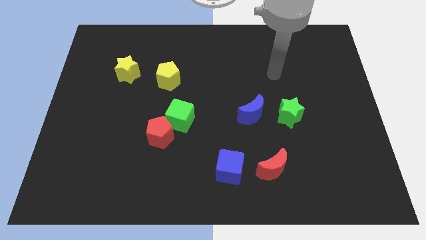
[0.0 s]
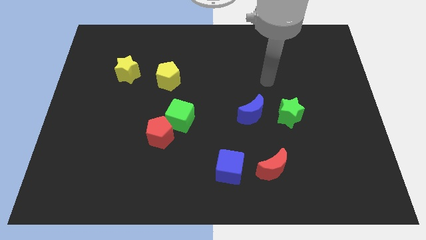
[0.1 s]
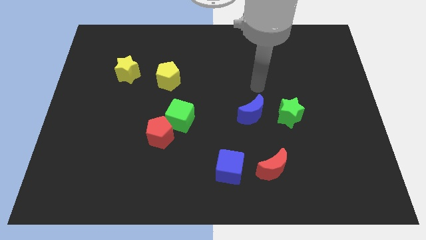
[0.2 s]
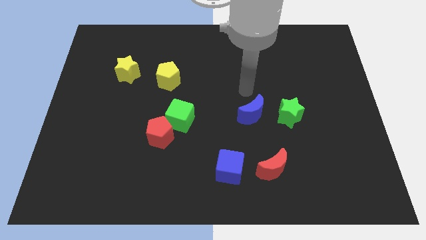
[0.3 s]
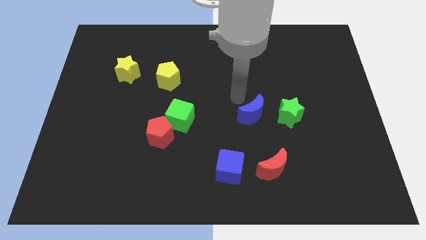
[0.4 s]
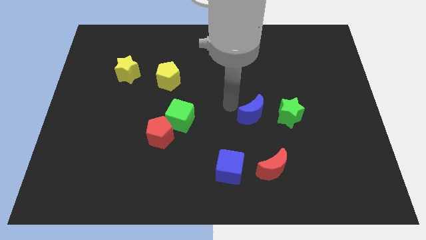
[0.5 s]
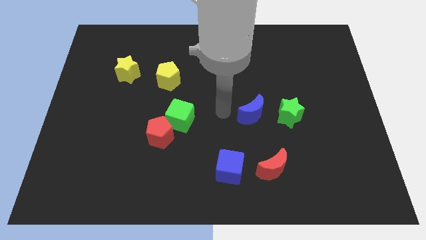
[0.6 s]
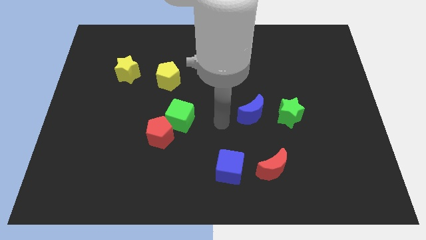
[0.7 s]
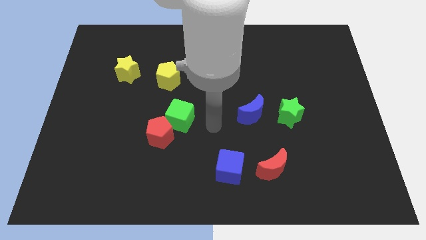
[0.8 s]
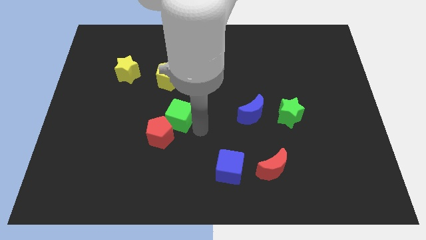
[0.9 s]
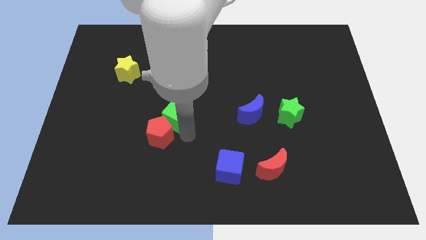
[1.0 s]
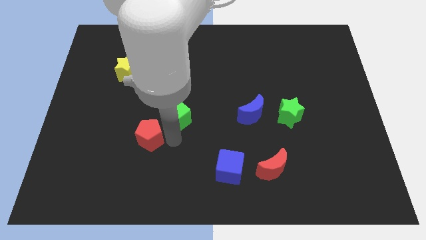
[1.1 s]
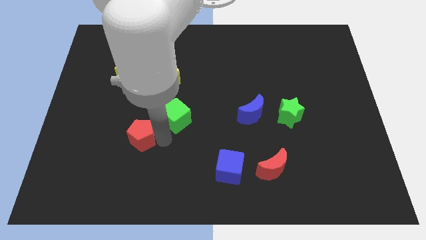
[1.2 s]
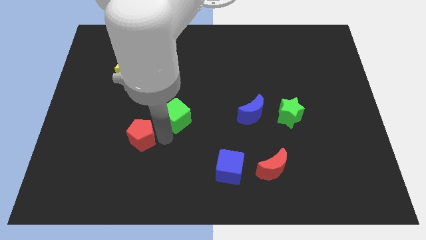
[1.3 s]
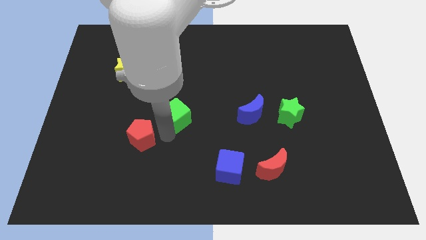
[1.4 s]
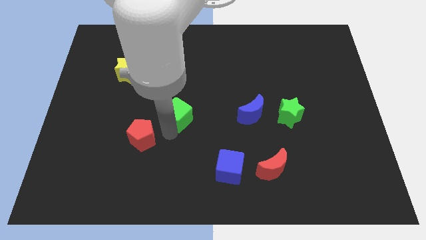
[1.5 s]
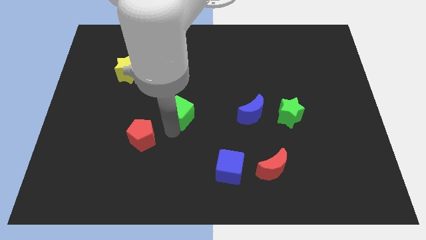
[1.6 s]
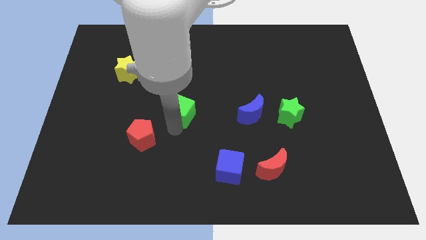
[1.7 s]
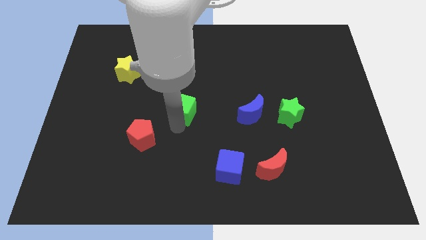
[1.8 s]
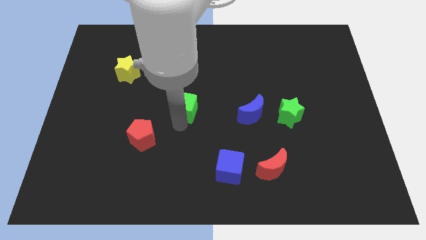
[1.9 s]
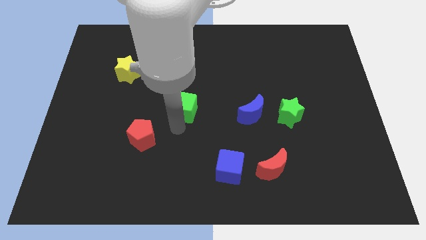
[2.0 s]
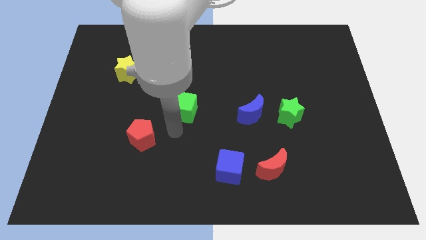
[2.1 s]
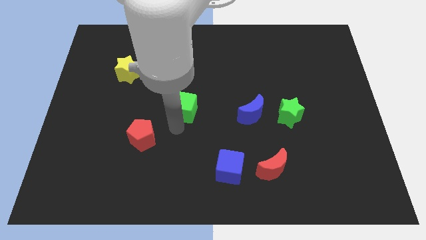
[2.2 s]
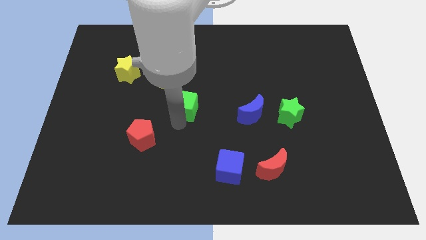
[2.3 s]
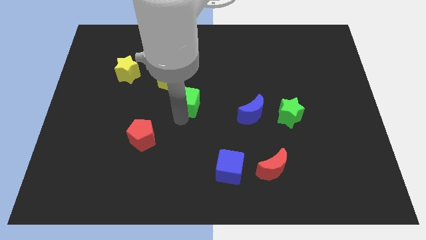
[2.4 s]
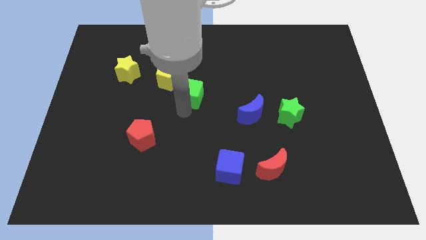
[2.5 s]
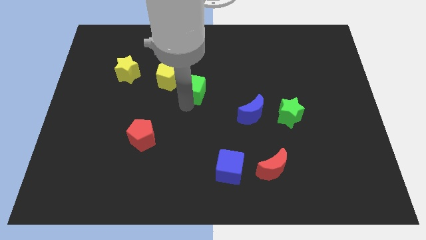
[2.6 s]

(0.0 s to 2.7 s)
slightly push the green cube up

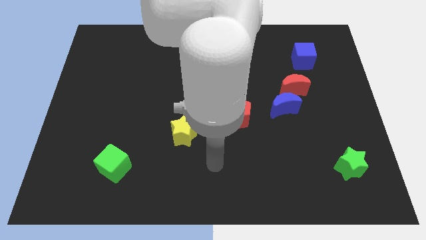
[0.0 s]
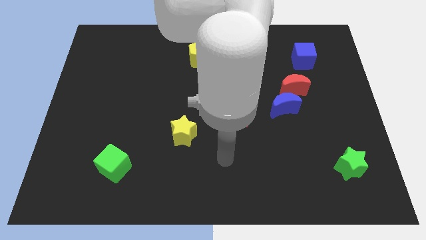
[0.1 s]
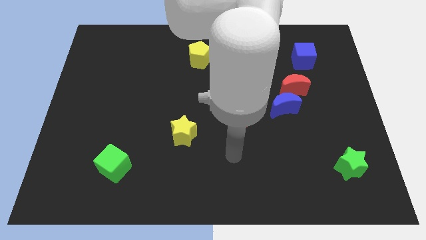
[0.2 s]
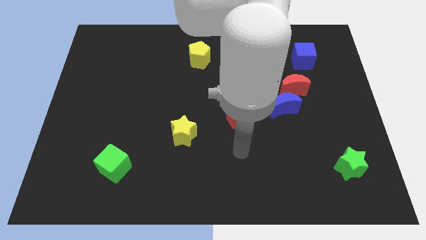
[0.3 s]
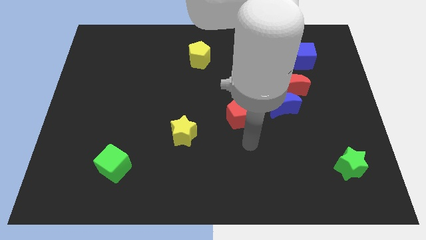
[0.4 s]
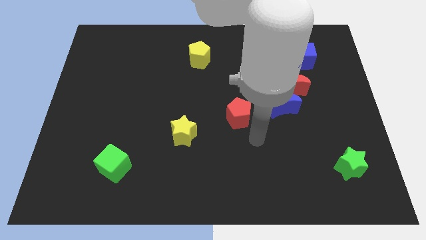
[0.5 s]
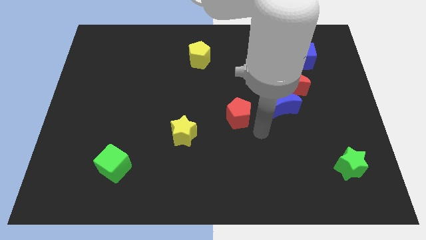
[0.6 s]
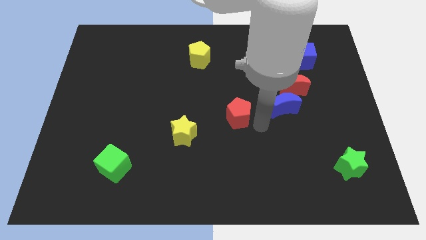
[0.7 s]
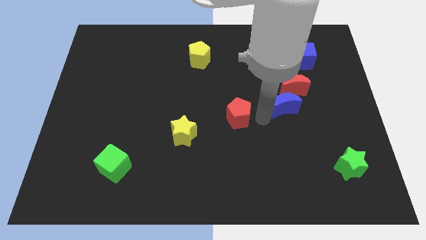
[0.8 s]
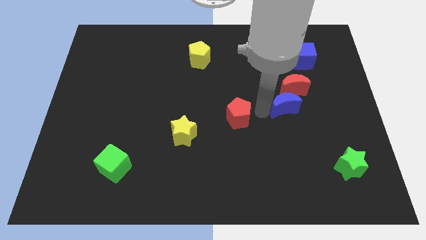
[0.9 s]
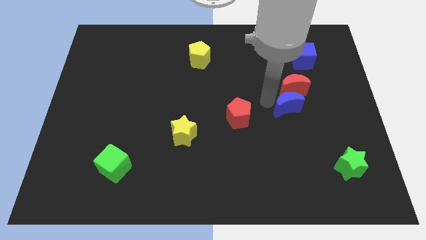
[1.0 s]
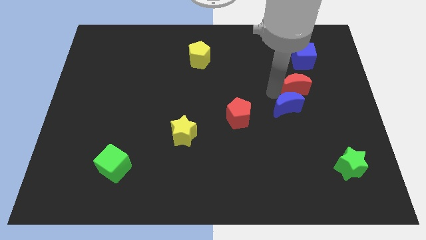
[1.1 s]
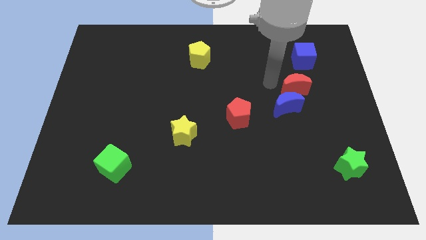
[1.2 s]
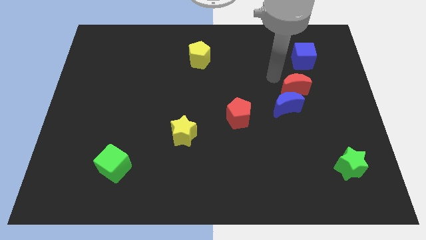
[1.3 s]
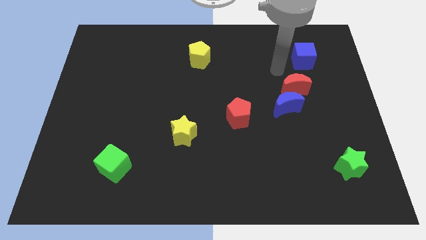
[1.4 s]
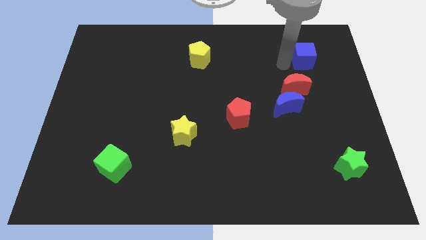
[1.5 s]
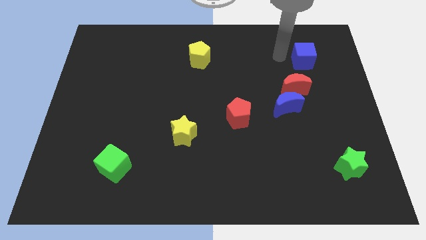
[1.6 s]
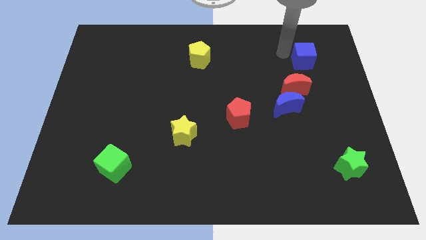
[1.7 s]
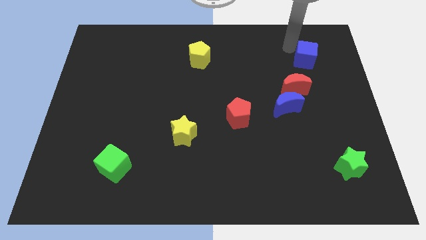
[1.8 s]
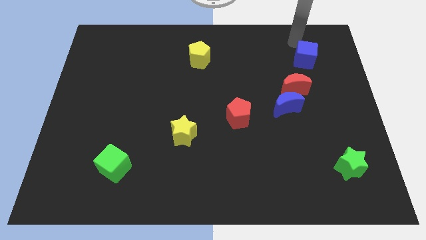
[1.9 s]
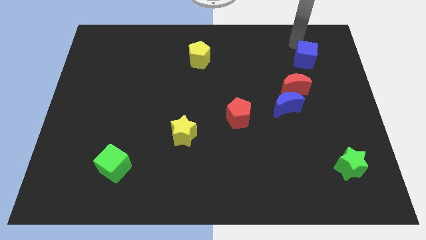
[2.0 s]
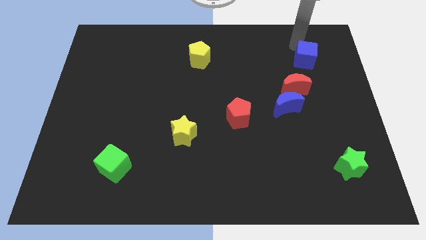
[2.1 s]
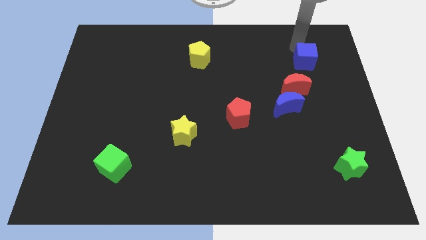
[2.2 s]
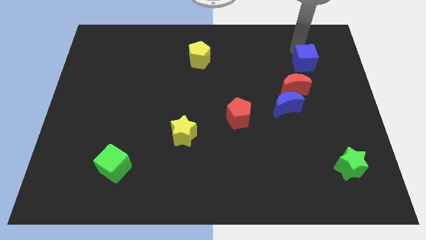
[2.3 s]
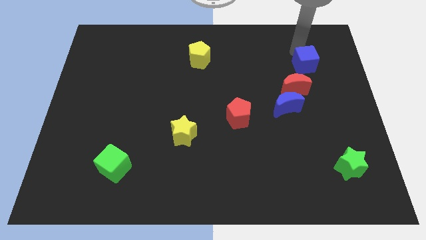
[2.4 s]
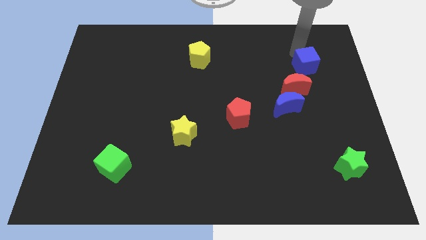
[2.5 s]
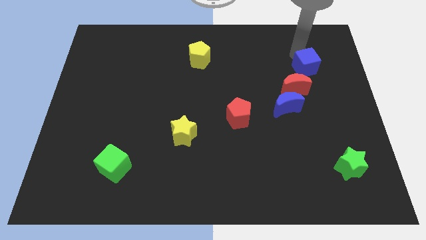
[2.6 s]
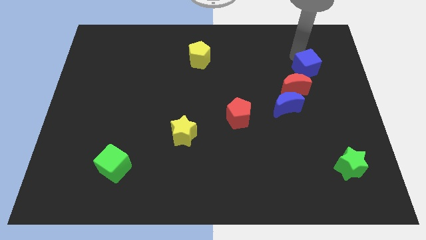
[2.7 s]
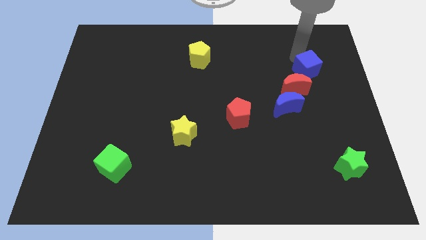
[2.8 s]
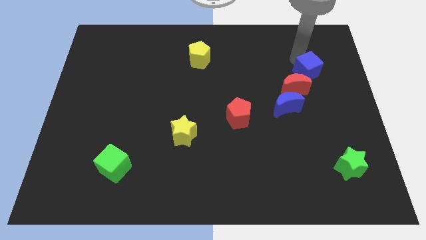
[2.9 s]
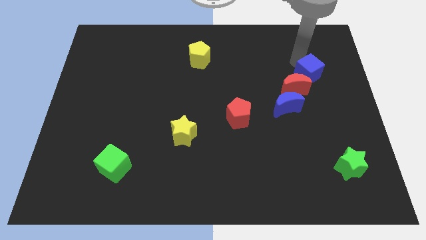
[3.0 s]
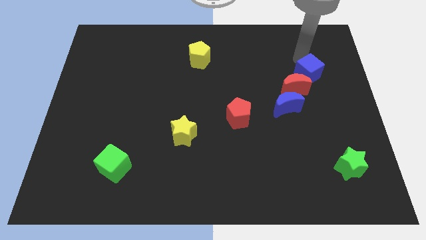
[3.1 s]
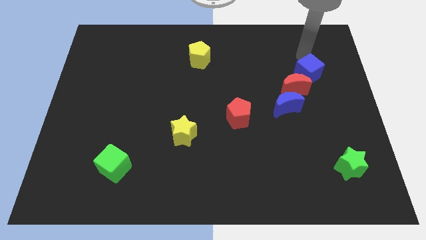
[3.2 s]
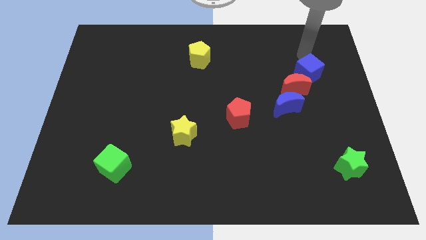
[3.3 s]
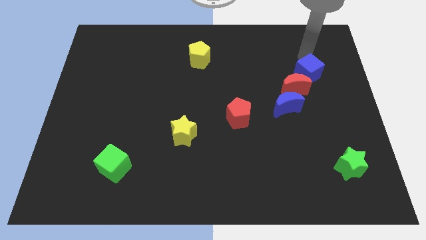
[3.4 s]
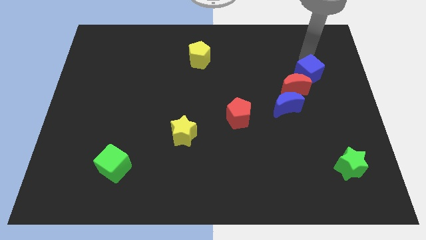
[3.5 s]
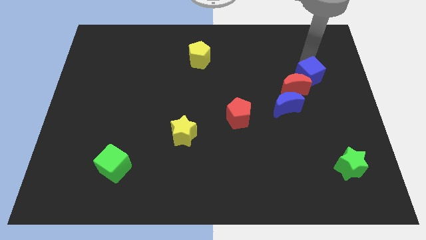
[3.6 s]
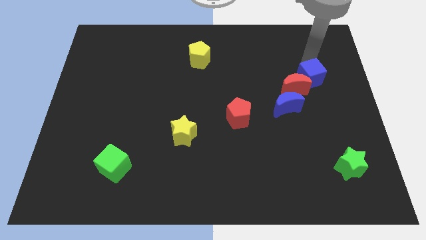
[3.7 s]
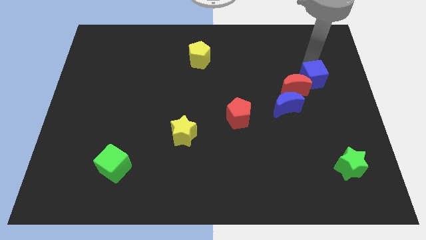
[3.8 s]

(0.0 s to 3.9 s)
push the blue cube a bit down

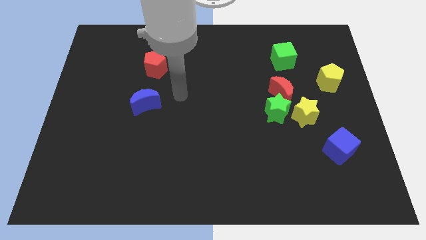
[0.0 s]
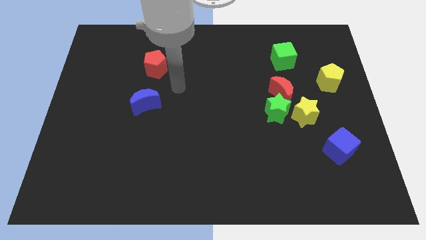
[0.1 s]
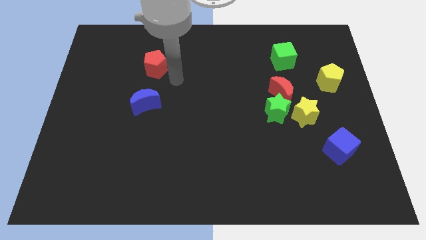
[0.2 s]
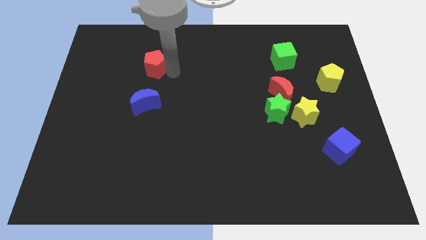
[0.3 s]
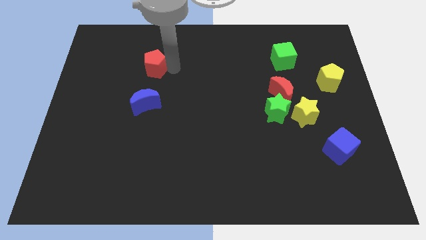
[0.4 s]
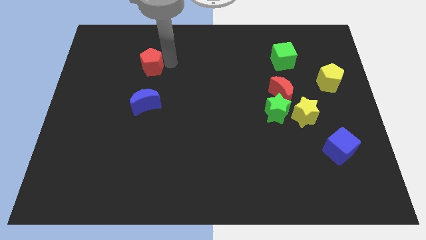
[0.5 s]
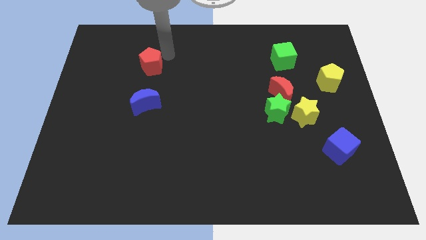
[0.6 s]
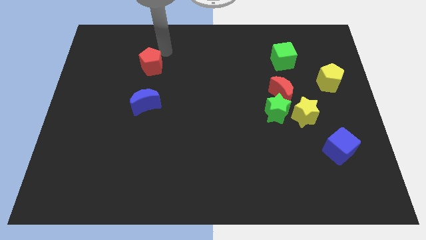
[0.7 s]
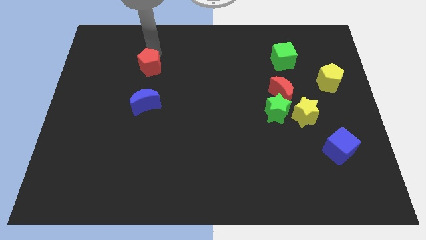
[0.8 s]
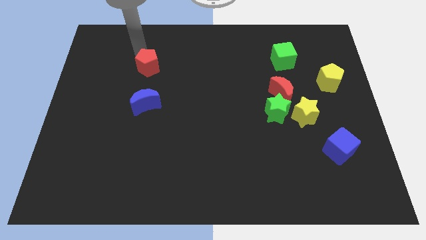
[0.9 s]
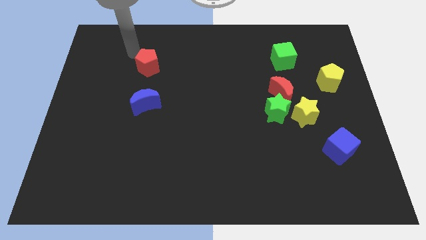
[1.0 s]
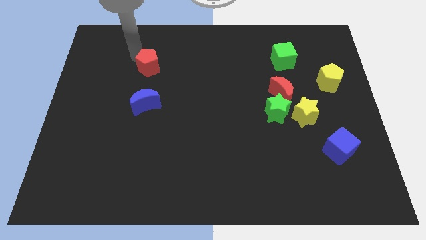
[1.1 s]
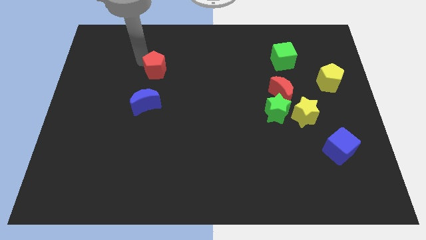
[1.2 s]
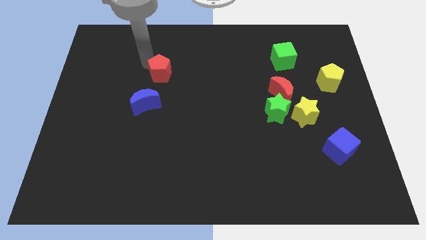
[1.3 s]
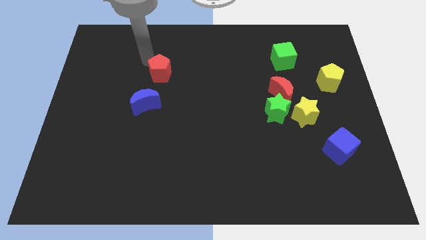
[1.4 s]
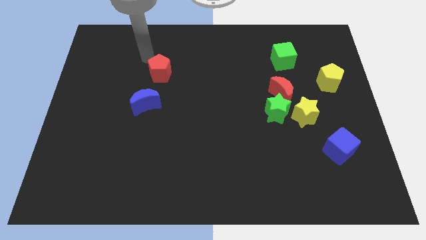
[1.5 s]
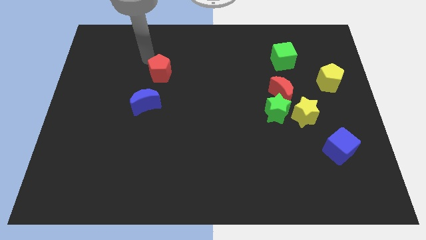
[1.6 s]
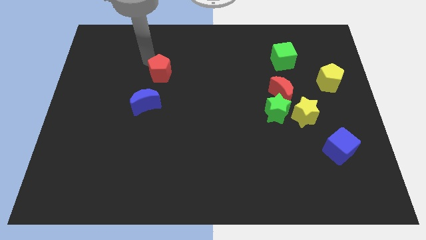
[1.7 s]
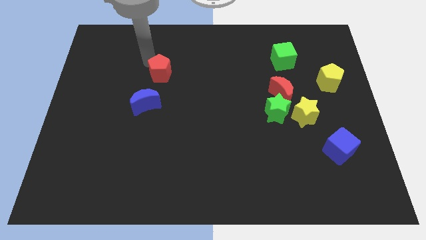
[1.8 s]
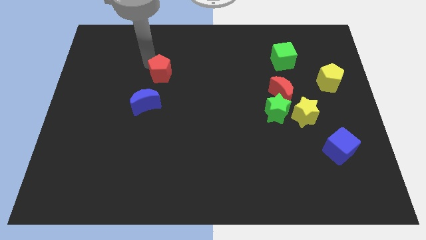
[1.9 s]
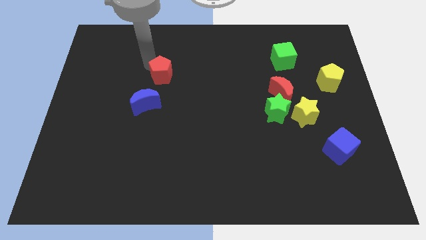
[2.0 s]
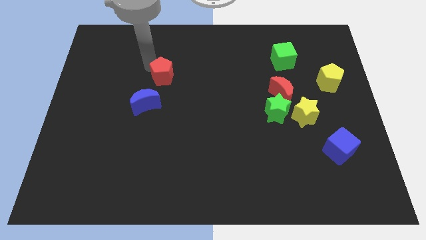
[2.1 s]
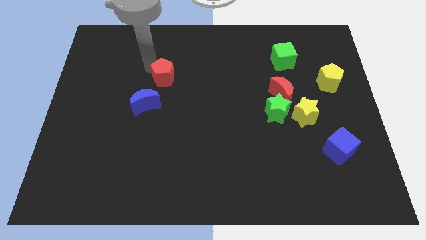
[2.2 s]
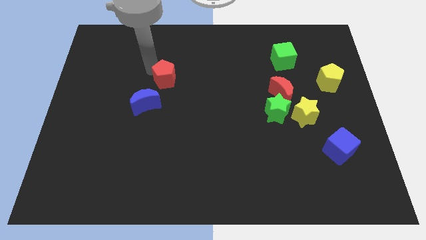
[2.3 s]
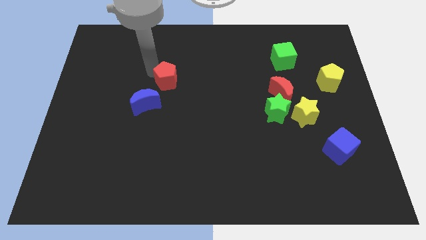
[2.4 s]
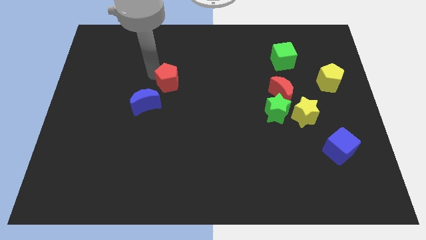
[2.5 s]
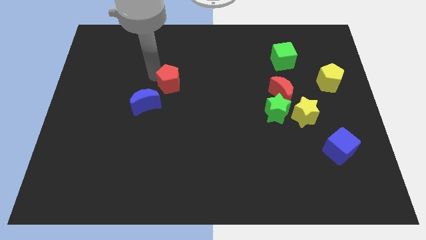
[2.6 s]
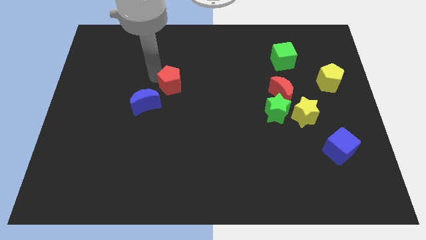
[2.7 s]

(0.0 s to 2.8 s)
slightly push the red pentagon down and then to the right
